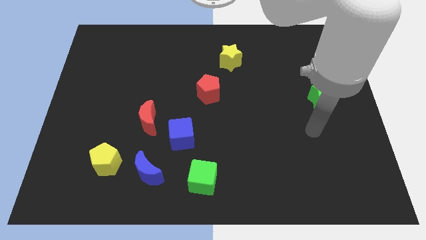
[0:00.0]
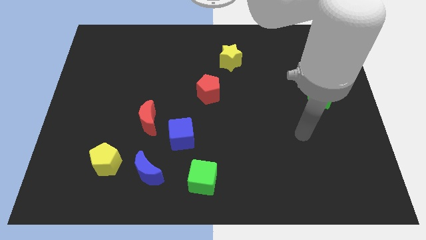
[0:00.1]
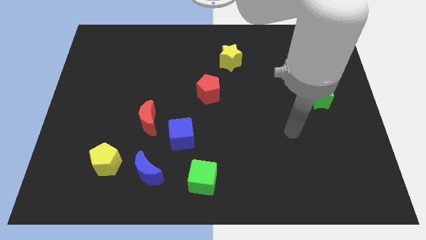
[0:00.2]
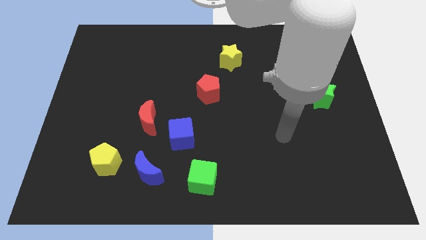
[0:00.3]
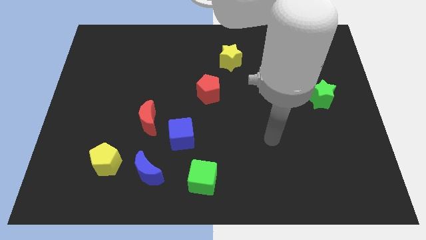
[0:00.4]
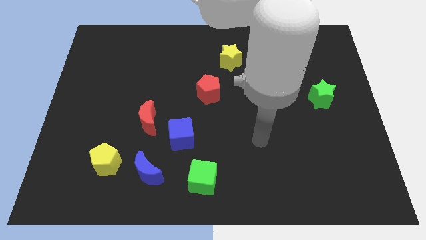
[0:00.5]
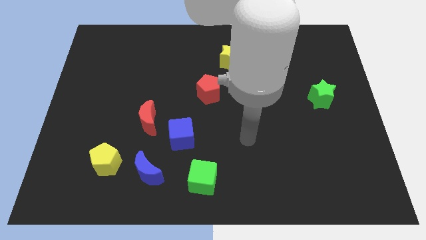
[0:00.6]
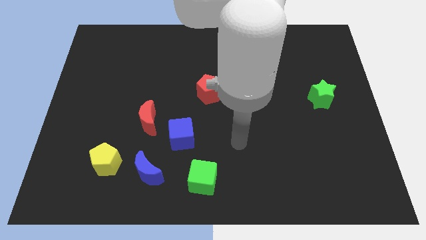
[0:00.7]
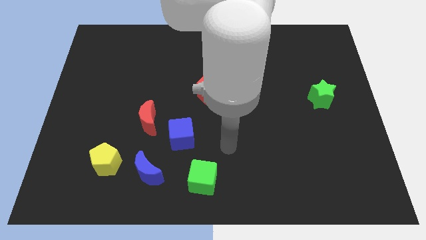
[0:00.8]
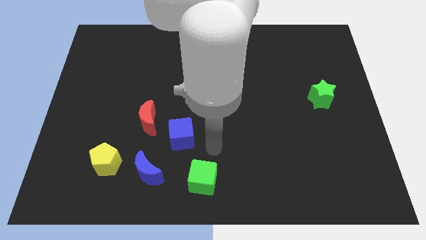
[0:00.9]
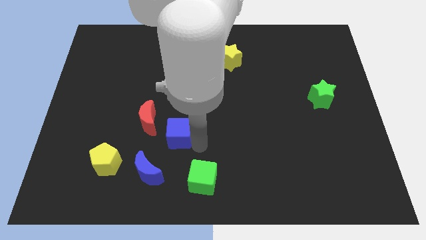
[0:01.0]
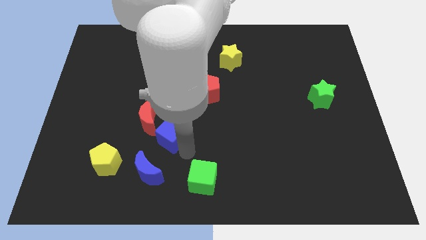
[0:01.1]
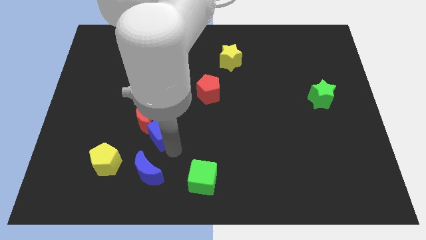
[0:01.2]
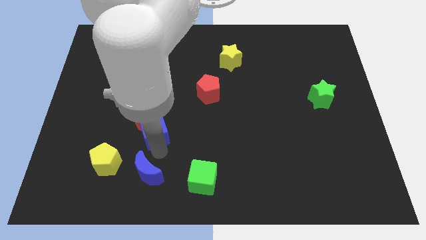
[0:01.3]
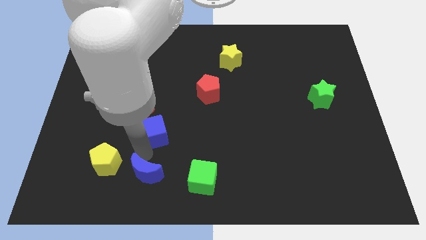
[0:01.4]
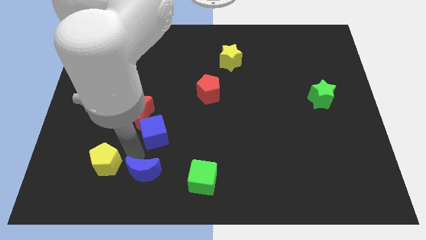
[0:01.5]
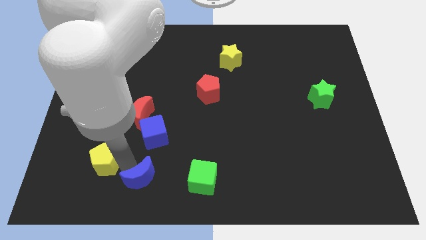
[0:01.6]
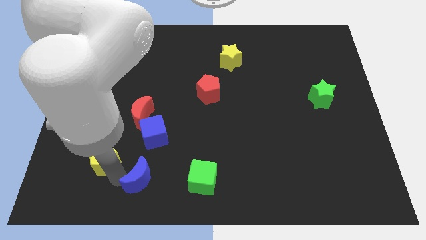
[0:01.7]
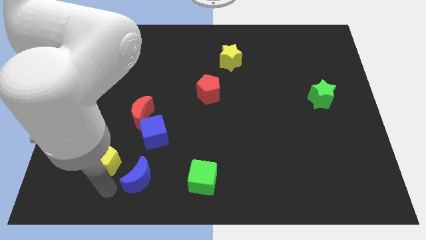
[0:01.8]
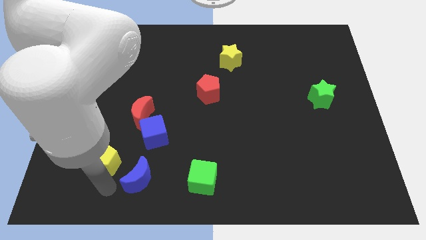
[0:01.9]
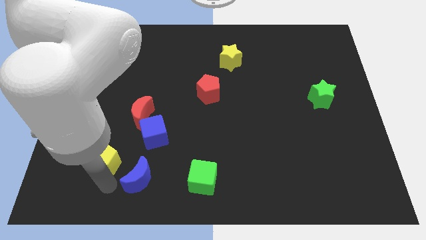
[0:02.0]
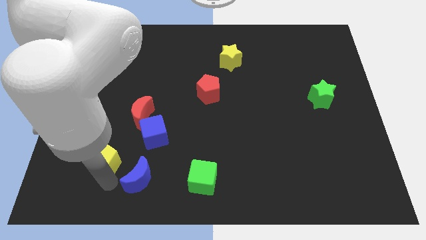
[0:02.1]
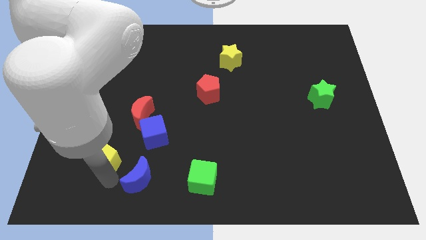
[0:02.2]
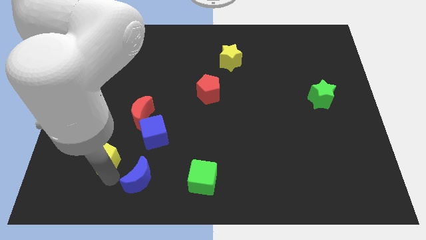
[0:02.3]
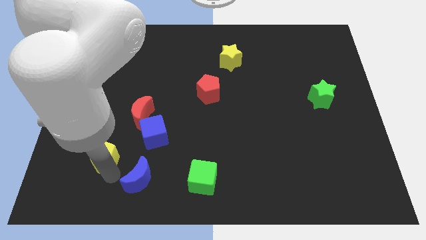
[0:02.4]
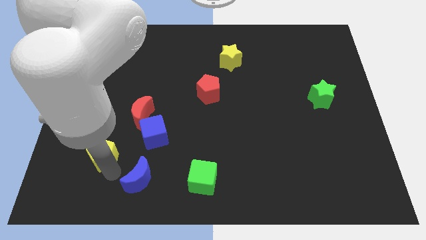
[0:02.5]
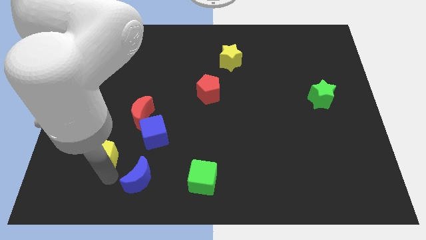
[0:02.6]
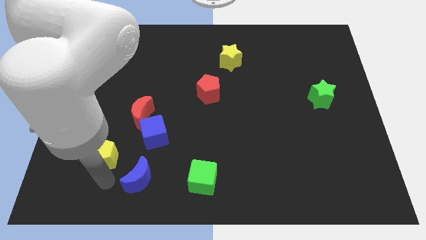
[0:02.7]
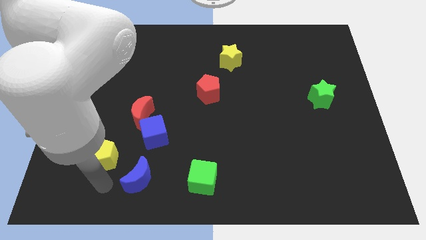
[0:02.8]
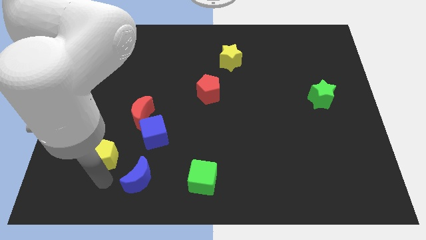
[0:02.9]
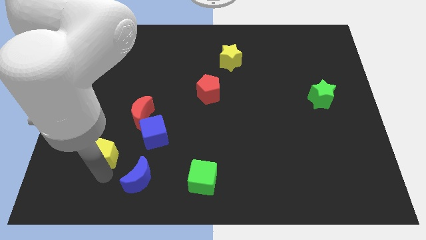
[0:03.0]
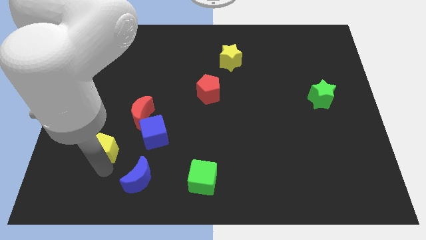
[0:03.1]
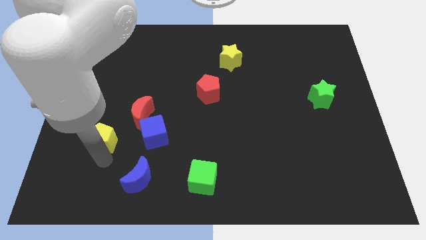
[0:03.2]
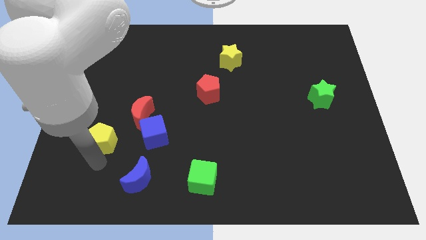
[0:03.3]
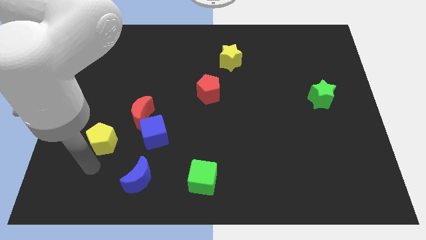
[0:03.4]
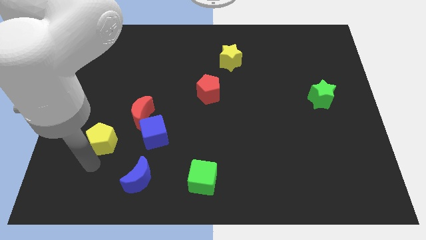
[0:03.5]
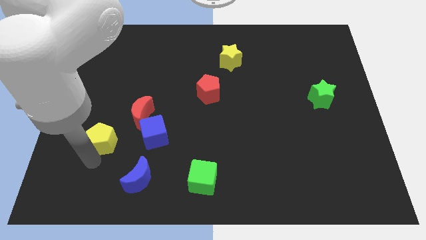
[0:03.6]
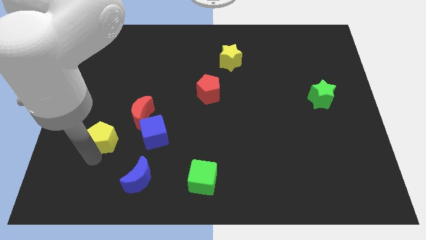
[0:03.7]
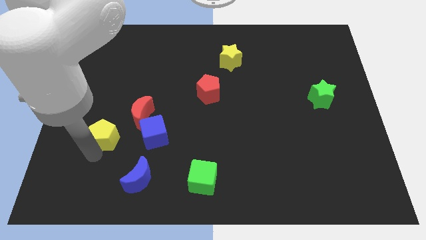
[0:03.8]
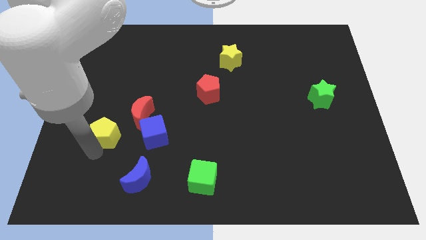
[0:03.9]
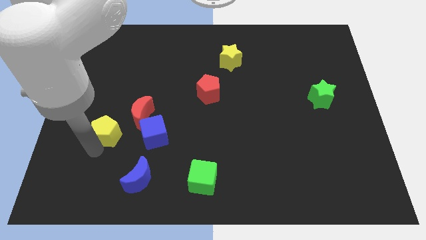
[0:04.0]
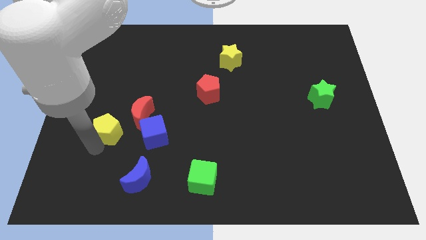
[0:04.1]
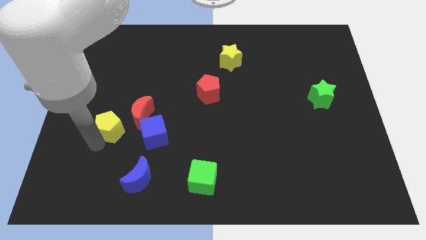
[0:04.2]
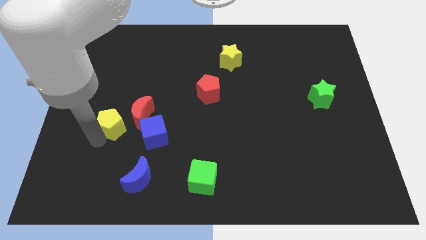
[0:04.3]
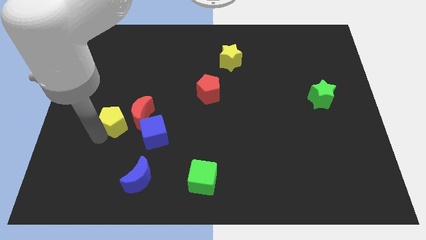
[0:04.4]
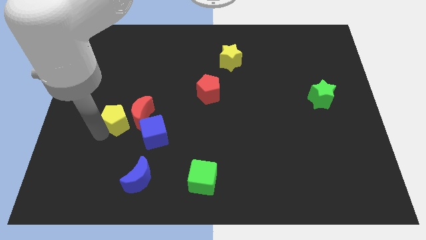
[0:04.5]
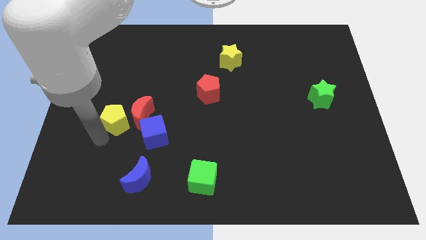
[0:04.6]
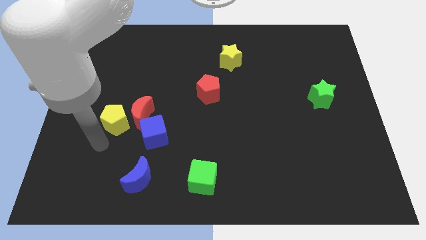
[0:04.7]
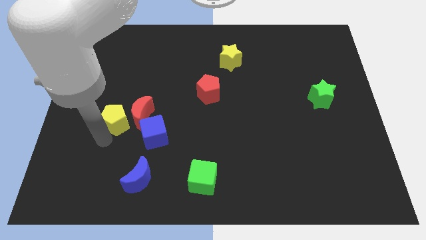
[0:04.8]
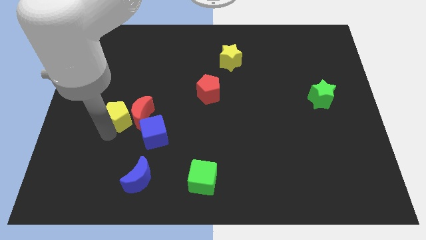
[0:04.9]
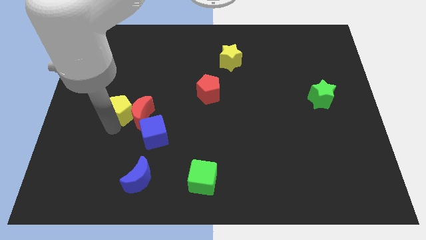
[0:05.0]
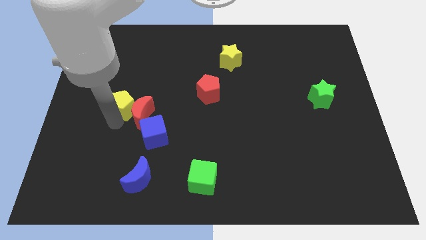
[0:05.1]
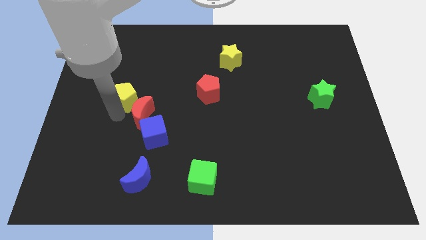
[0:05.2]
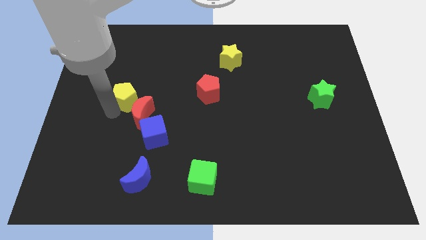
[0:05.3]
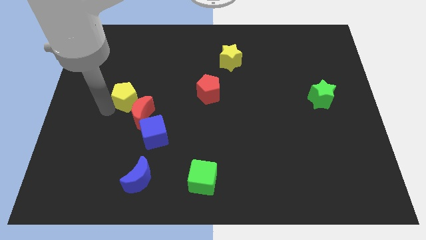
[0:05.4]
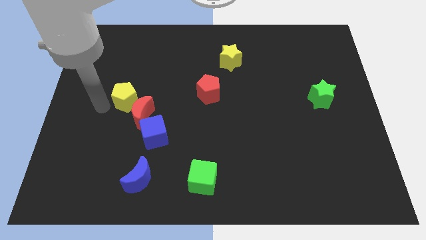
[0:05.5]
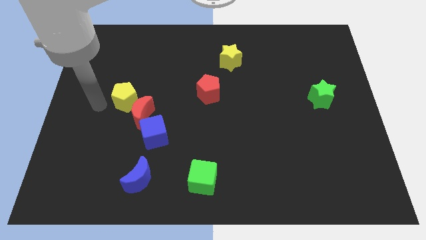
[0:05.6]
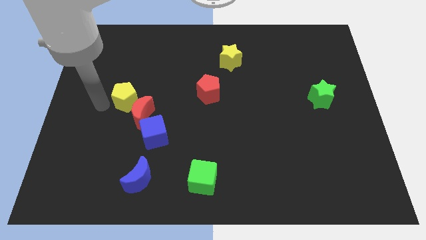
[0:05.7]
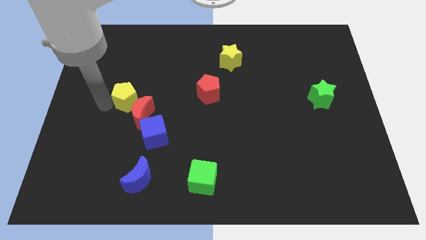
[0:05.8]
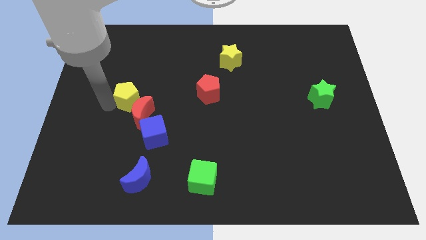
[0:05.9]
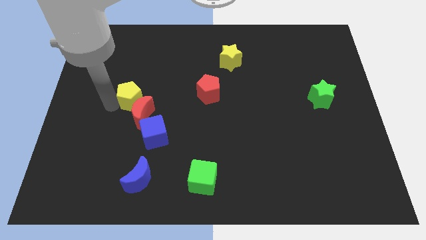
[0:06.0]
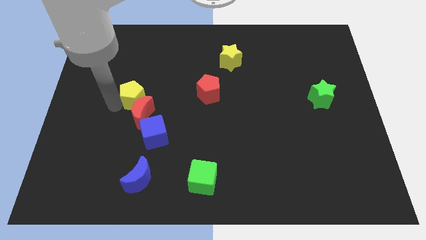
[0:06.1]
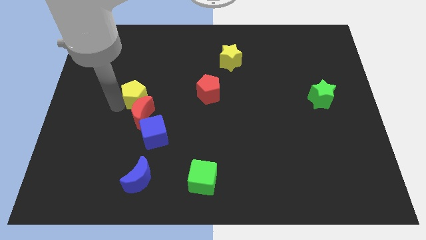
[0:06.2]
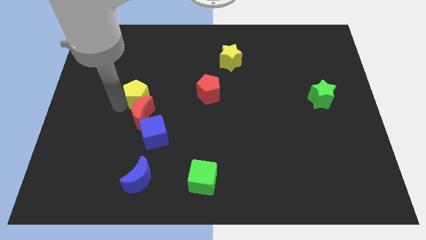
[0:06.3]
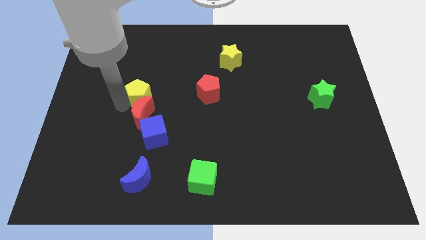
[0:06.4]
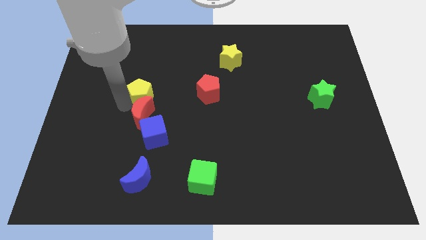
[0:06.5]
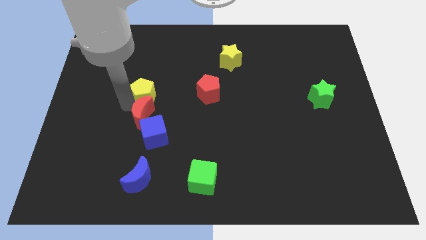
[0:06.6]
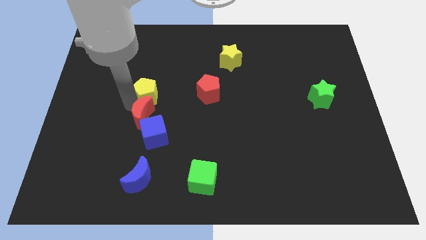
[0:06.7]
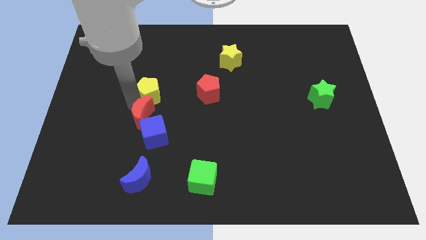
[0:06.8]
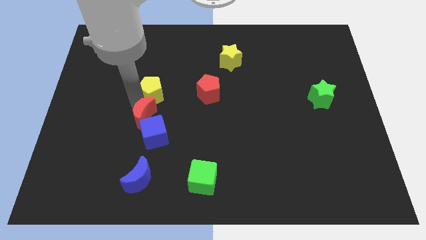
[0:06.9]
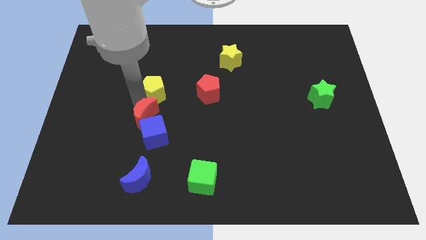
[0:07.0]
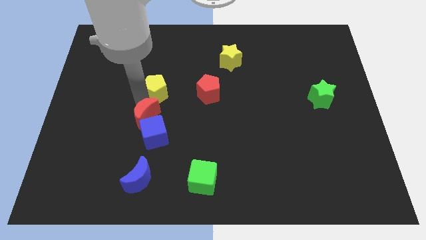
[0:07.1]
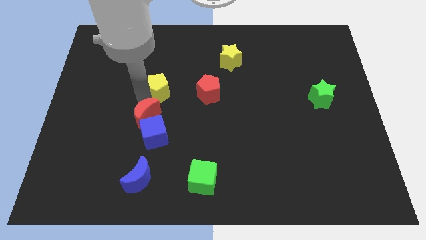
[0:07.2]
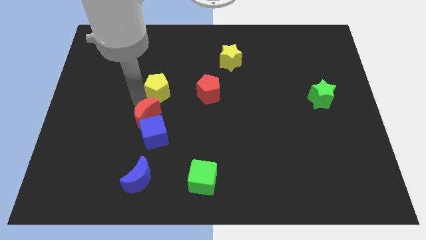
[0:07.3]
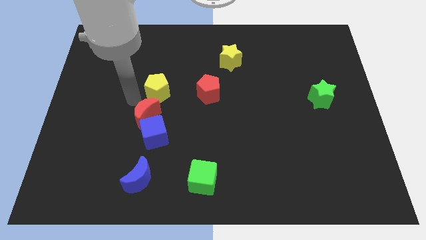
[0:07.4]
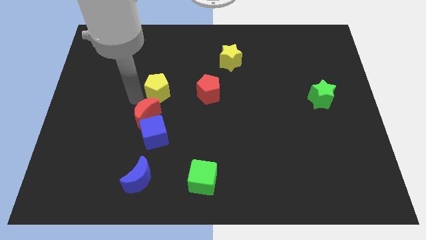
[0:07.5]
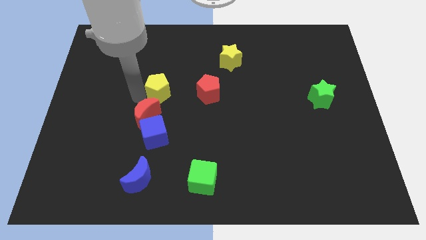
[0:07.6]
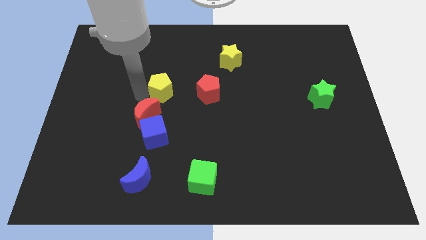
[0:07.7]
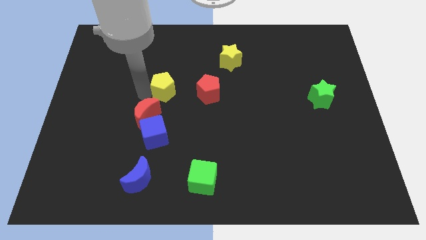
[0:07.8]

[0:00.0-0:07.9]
move the yellow pentagon up and to the right
